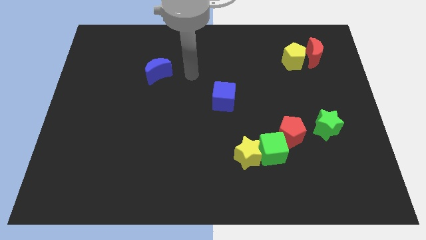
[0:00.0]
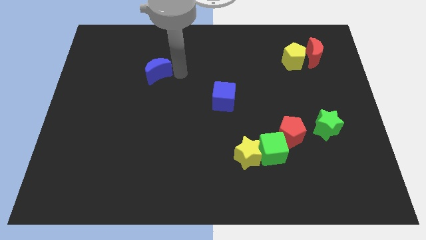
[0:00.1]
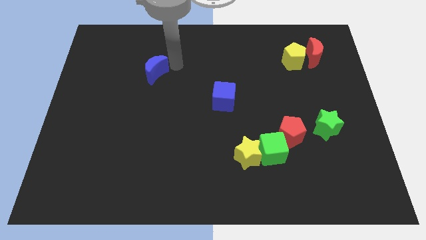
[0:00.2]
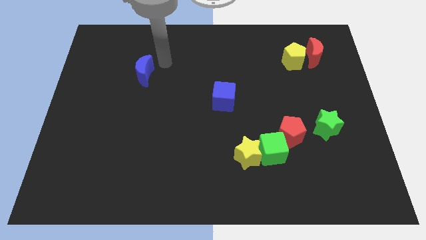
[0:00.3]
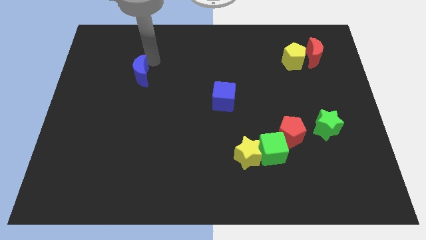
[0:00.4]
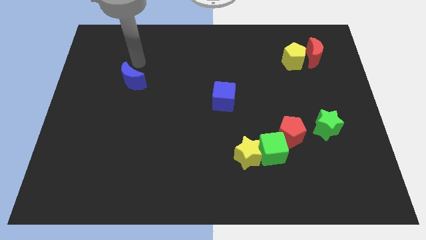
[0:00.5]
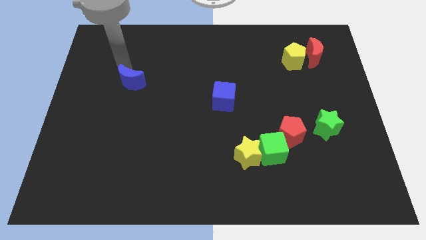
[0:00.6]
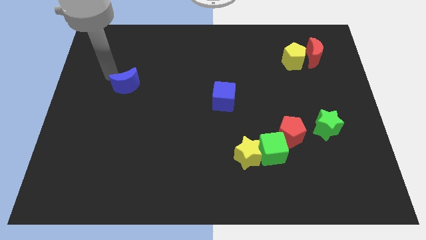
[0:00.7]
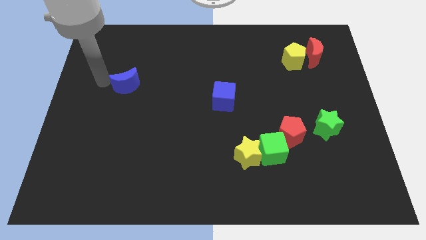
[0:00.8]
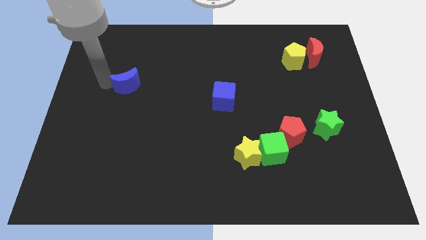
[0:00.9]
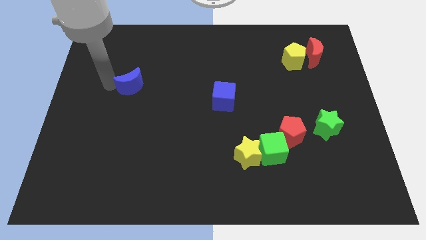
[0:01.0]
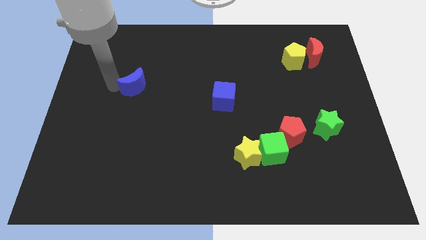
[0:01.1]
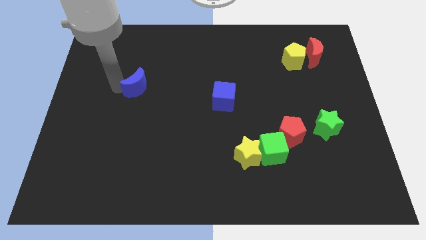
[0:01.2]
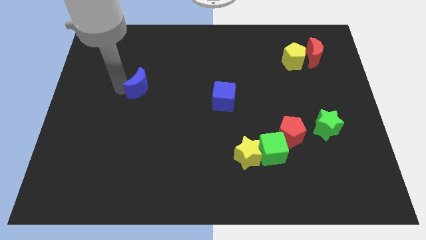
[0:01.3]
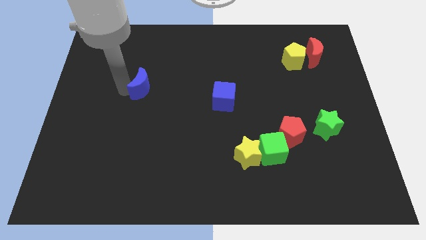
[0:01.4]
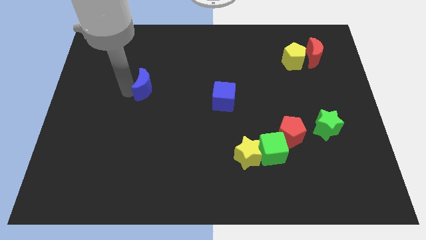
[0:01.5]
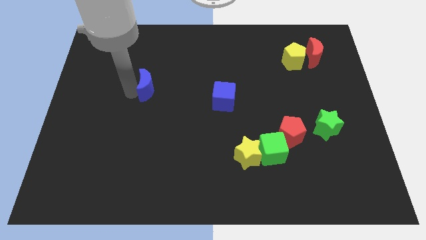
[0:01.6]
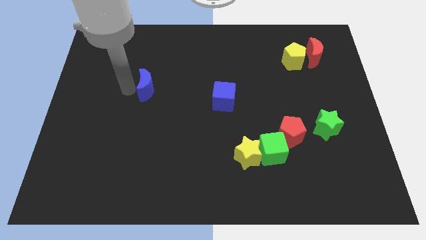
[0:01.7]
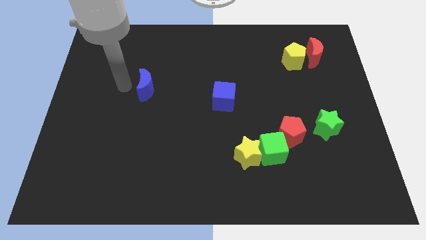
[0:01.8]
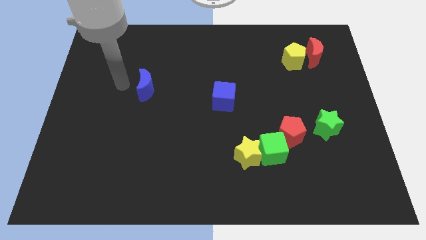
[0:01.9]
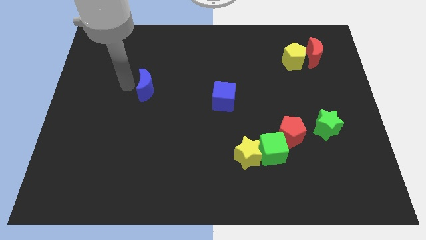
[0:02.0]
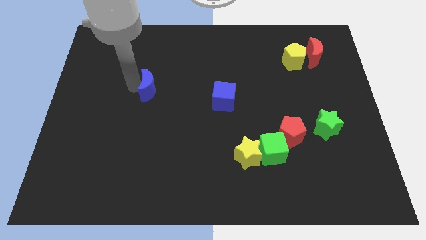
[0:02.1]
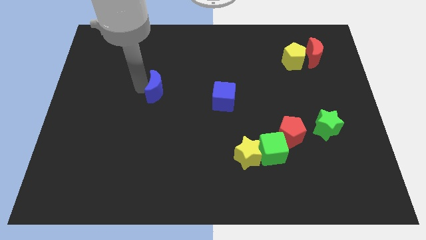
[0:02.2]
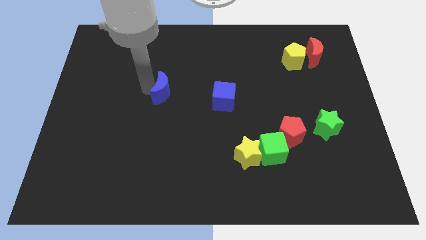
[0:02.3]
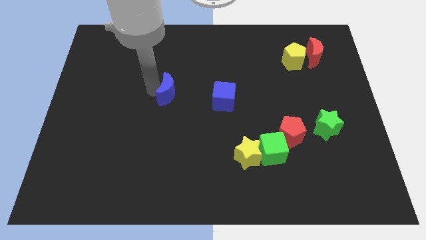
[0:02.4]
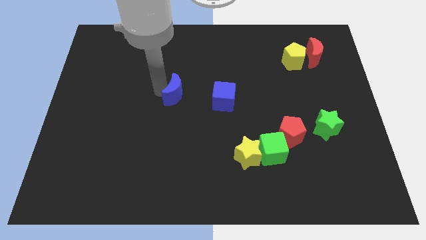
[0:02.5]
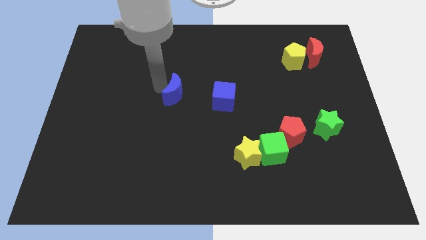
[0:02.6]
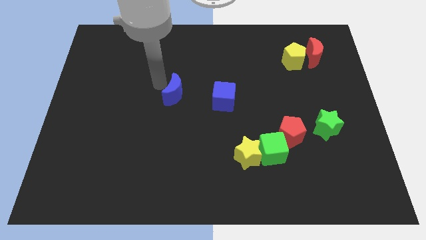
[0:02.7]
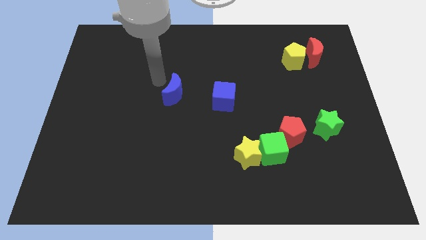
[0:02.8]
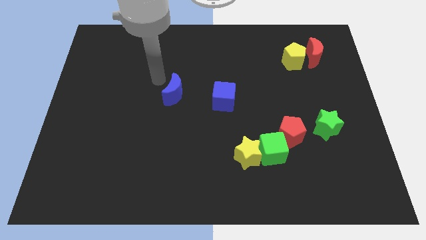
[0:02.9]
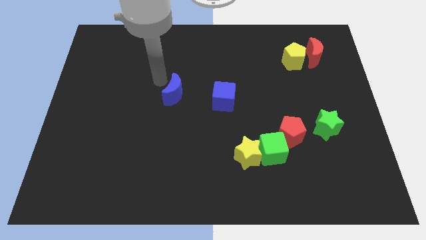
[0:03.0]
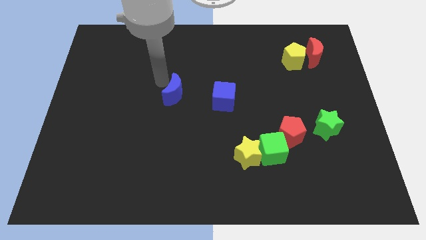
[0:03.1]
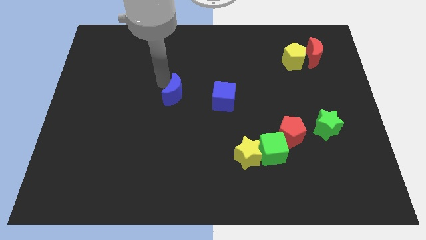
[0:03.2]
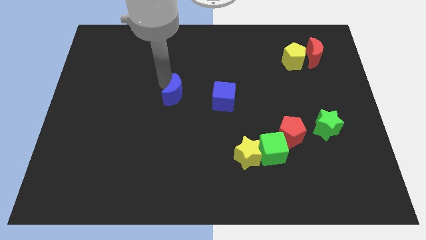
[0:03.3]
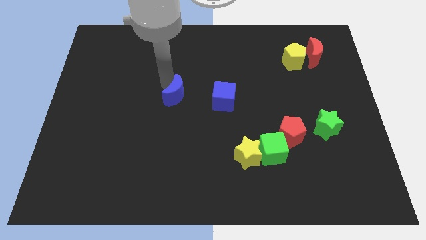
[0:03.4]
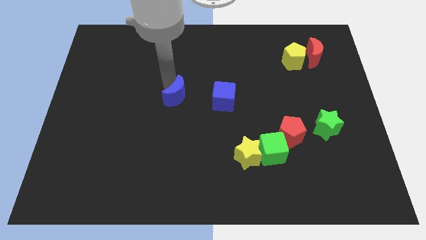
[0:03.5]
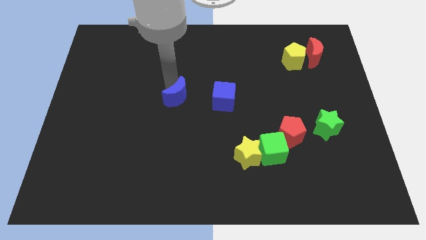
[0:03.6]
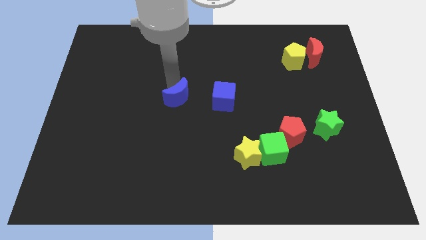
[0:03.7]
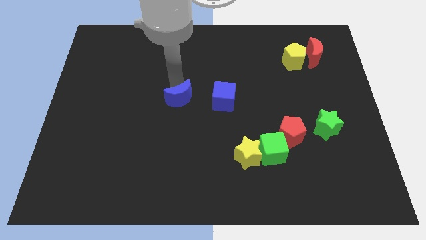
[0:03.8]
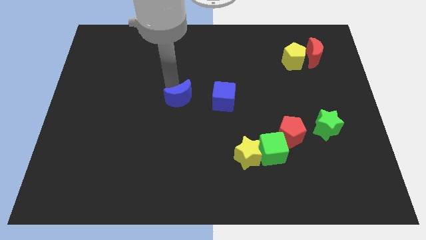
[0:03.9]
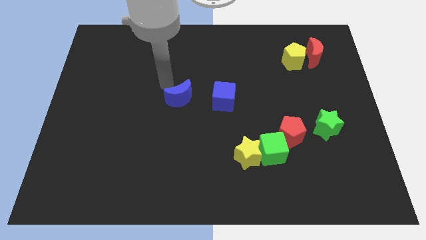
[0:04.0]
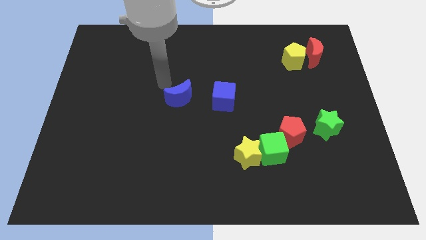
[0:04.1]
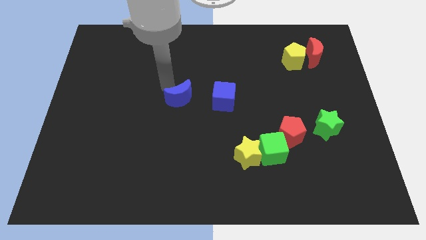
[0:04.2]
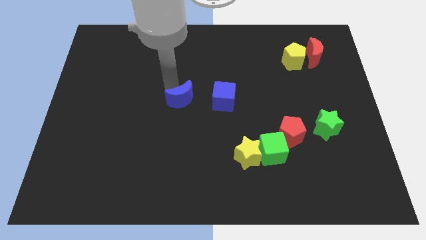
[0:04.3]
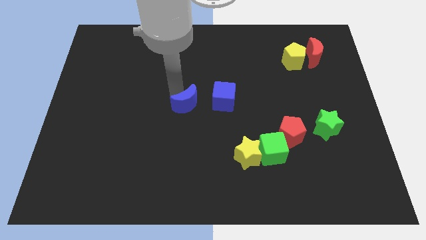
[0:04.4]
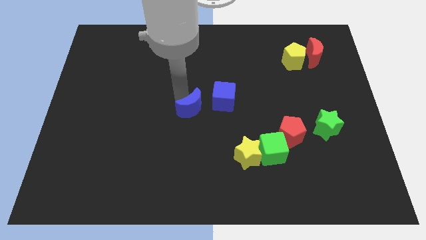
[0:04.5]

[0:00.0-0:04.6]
slide the blue moon to the bottom left of the blue cube

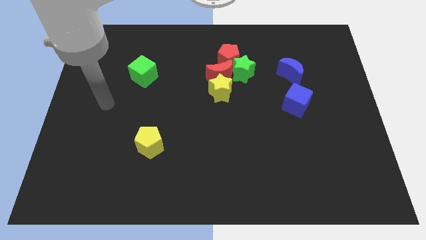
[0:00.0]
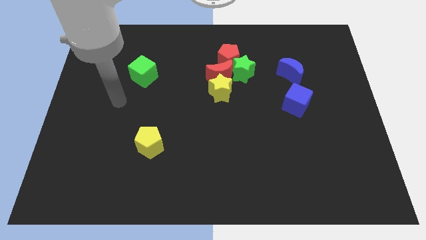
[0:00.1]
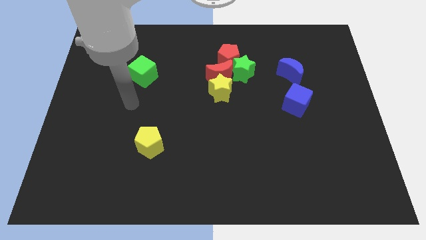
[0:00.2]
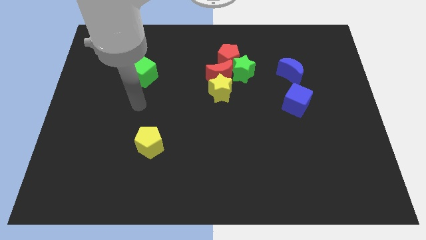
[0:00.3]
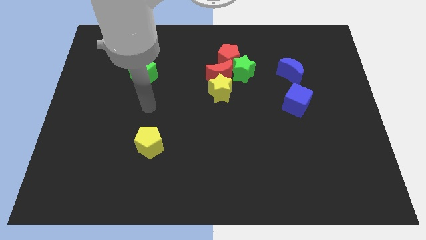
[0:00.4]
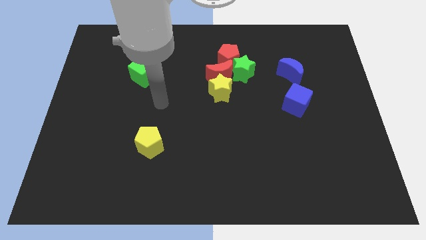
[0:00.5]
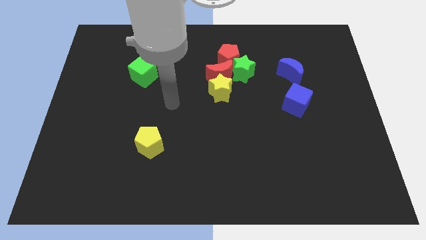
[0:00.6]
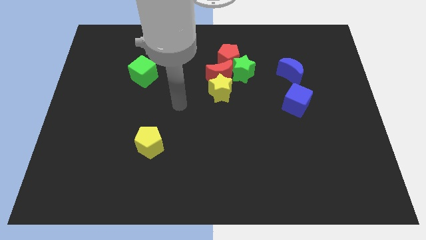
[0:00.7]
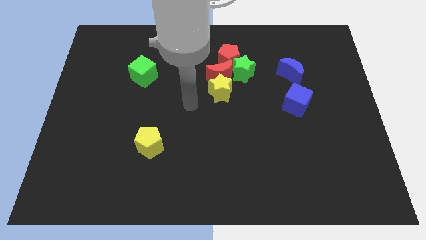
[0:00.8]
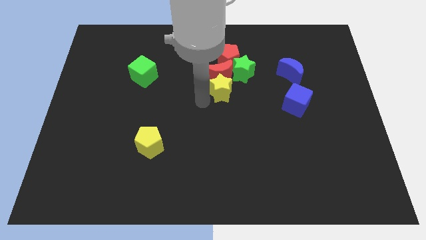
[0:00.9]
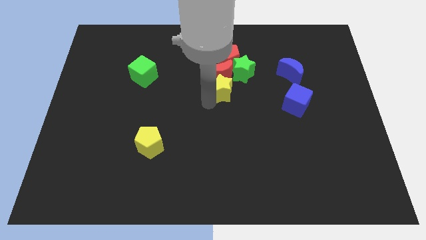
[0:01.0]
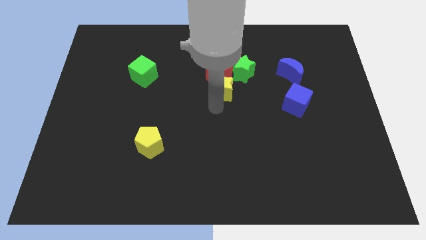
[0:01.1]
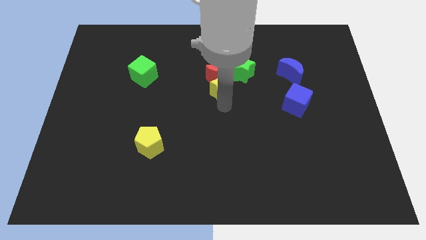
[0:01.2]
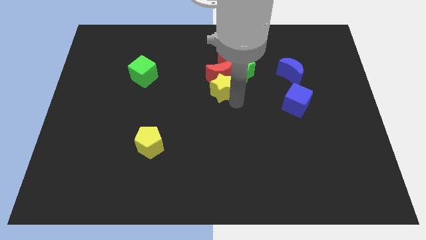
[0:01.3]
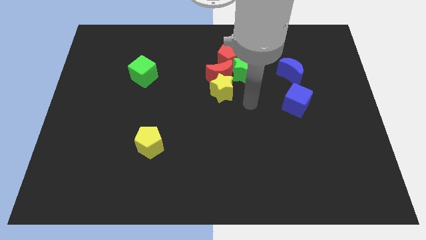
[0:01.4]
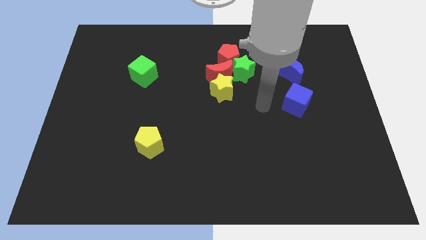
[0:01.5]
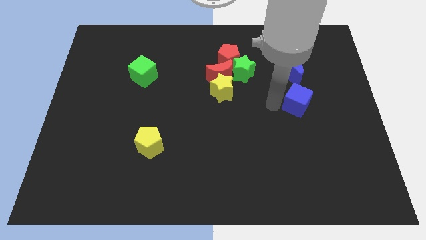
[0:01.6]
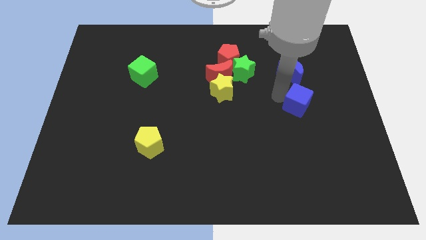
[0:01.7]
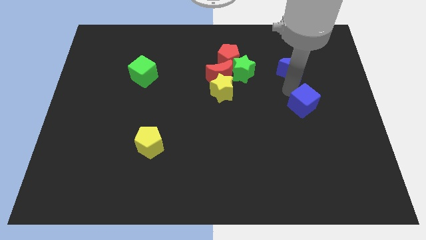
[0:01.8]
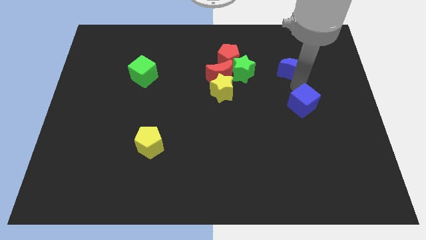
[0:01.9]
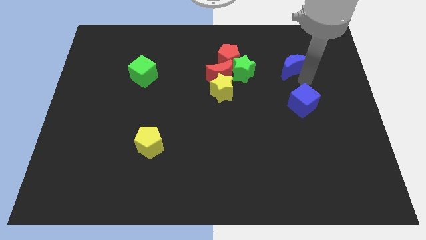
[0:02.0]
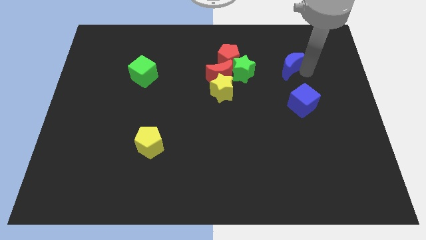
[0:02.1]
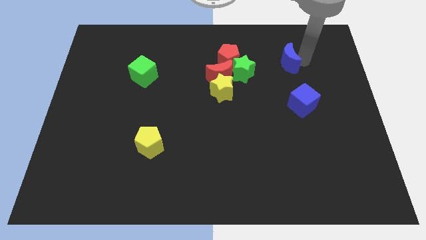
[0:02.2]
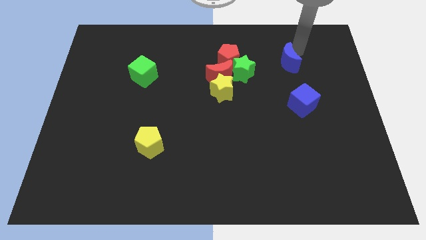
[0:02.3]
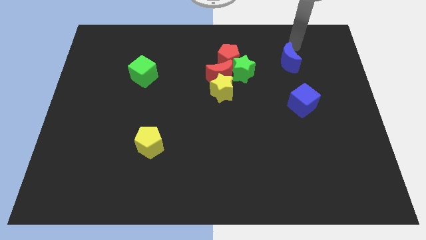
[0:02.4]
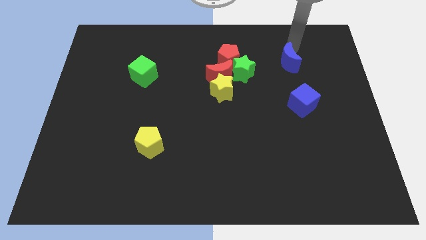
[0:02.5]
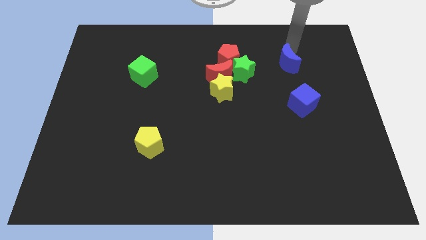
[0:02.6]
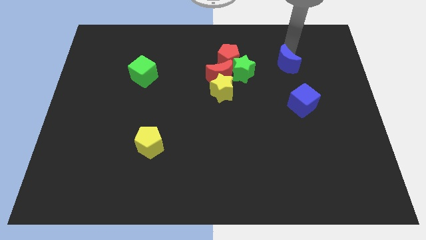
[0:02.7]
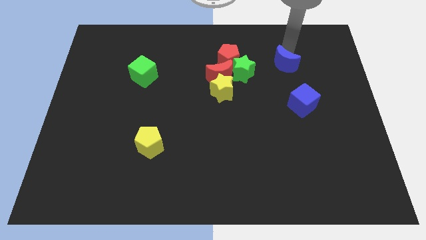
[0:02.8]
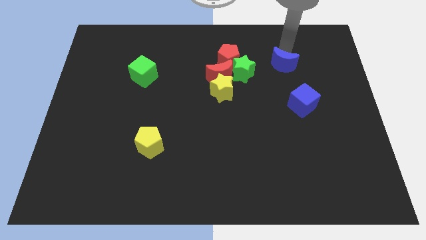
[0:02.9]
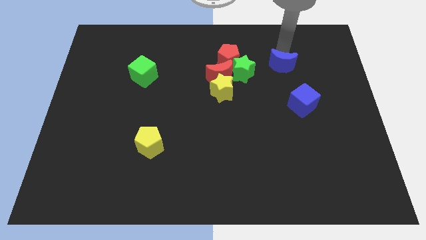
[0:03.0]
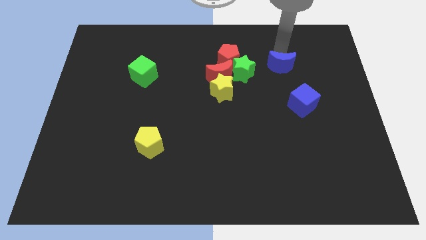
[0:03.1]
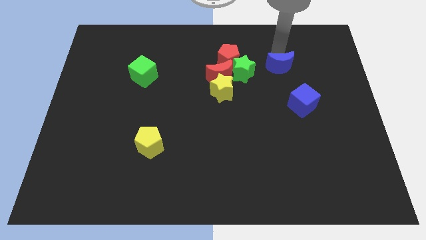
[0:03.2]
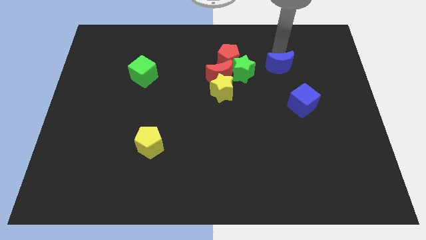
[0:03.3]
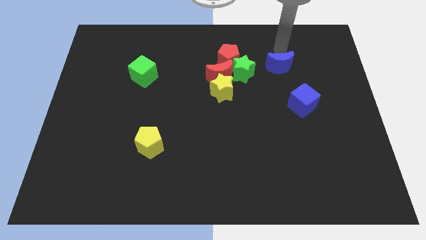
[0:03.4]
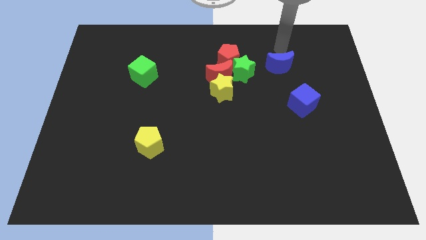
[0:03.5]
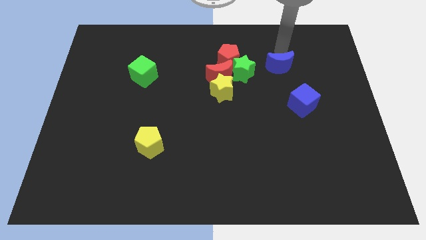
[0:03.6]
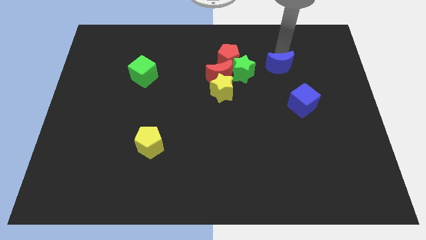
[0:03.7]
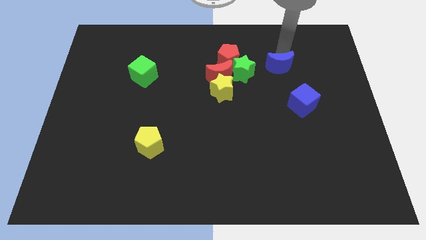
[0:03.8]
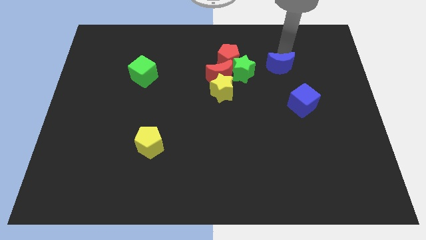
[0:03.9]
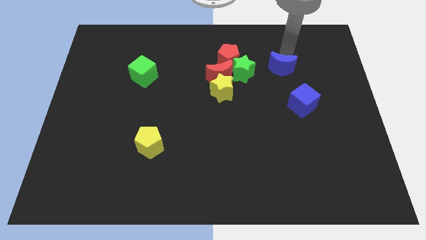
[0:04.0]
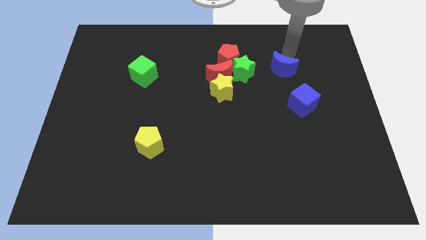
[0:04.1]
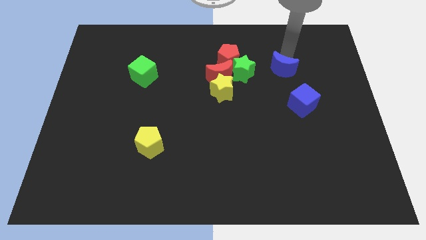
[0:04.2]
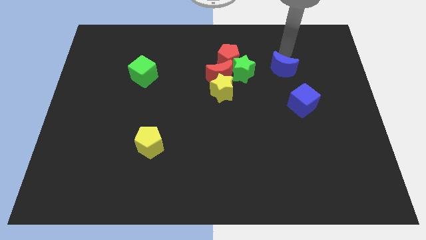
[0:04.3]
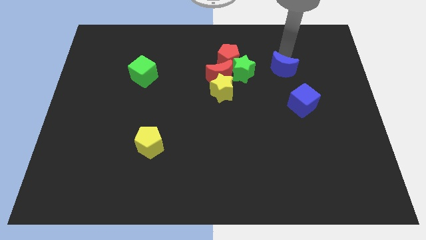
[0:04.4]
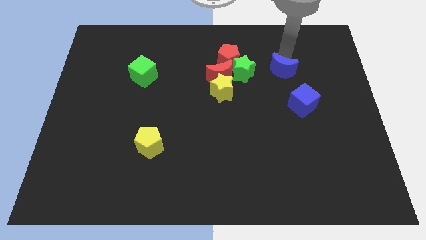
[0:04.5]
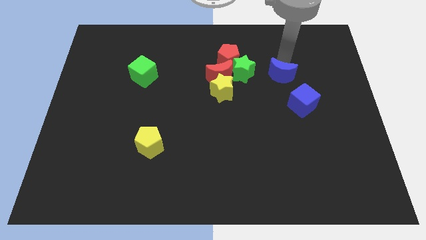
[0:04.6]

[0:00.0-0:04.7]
slide the blue moon to the top left side of the blue cube
